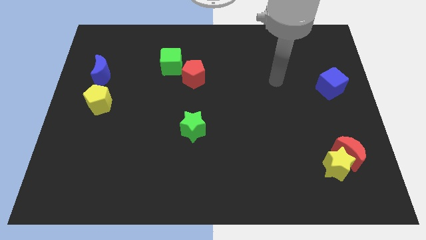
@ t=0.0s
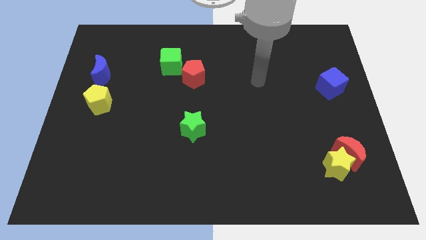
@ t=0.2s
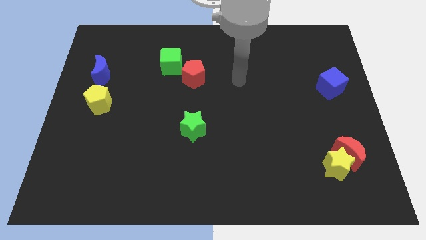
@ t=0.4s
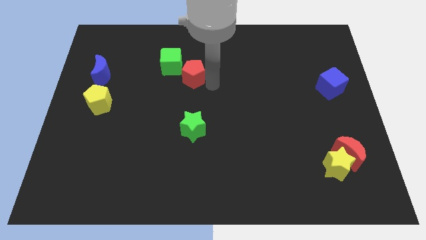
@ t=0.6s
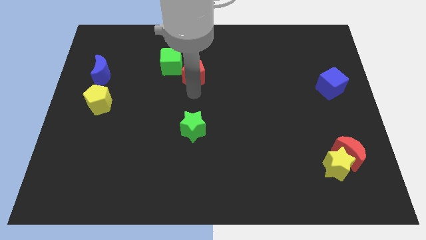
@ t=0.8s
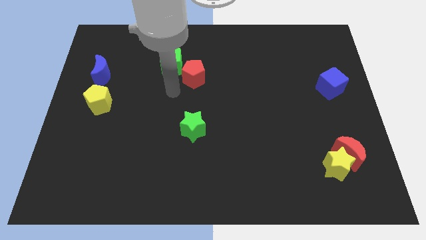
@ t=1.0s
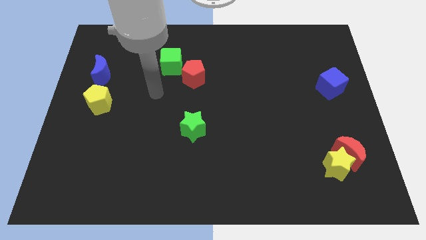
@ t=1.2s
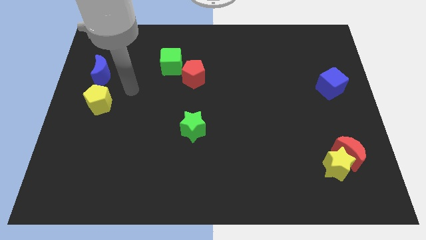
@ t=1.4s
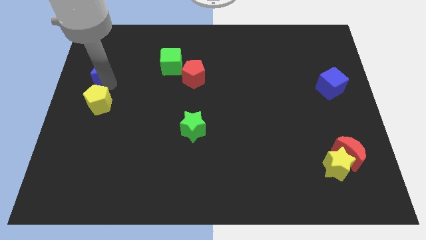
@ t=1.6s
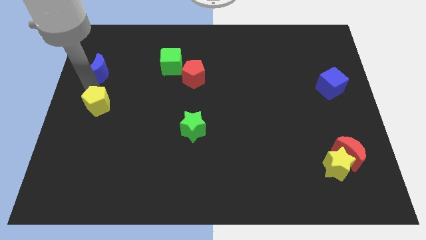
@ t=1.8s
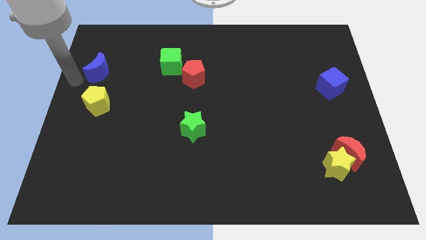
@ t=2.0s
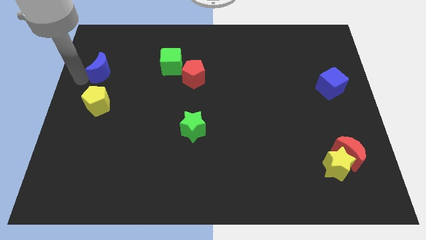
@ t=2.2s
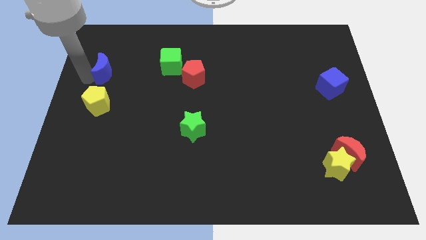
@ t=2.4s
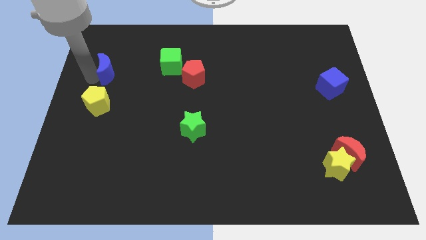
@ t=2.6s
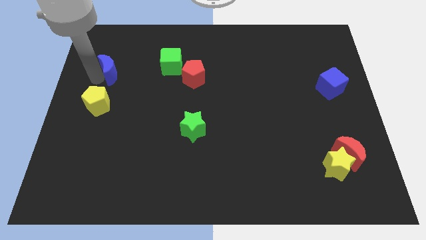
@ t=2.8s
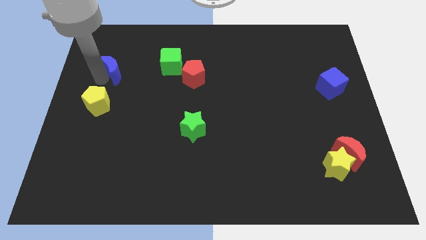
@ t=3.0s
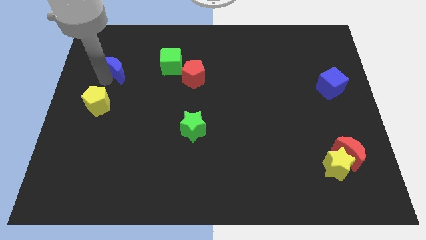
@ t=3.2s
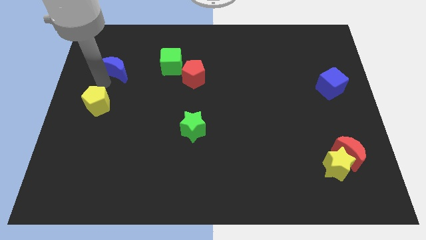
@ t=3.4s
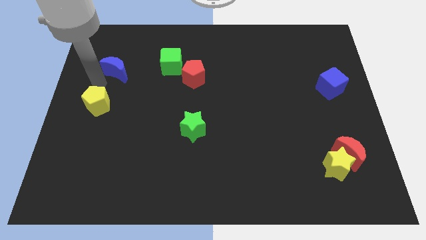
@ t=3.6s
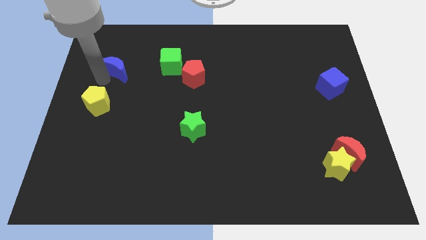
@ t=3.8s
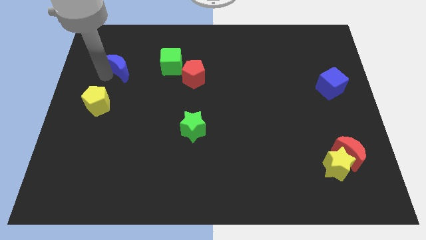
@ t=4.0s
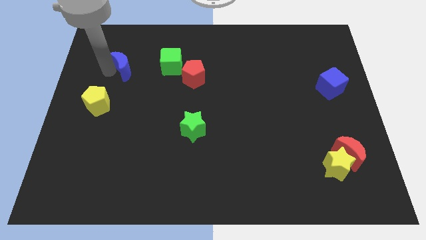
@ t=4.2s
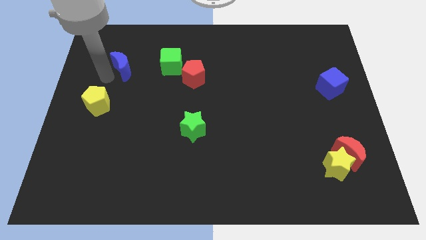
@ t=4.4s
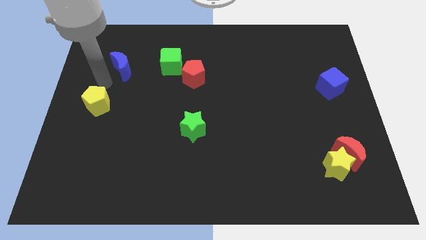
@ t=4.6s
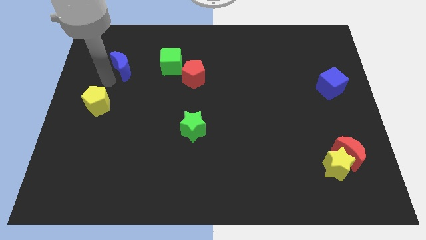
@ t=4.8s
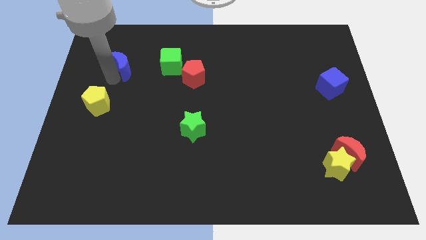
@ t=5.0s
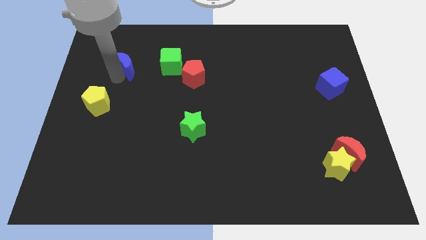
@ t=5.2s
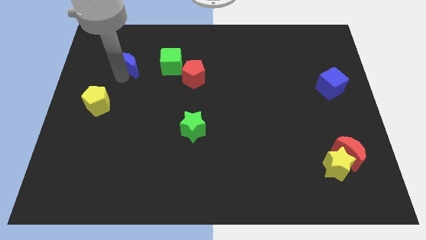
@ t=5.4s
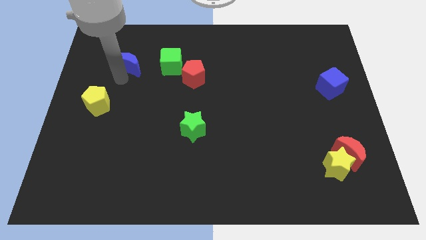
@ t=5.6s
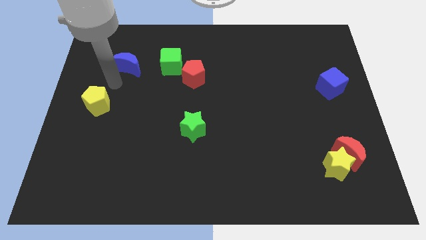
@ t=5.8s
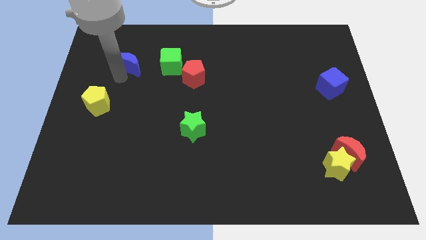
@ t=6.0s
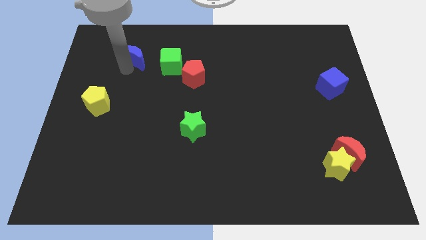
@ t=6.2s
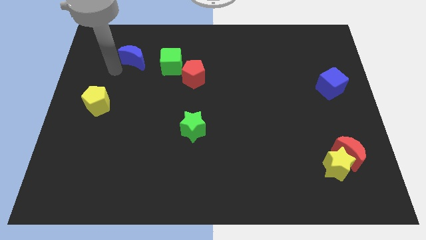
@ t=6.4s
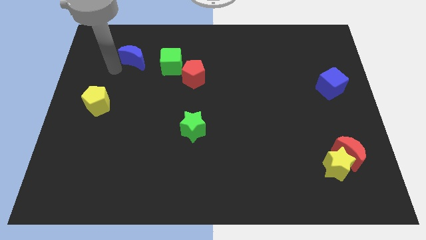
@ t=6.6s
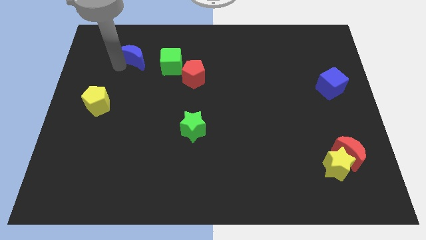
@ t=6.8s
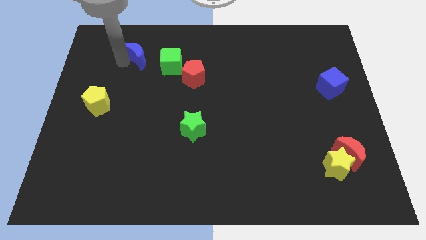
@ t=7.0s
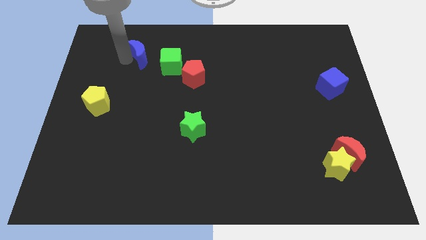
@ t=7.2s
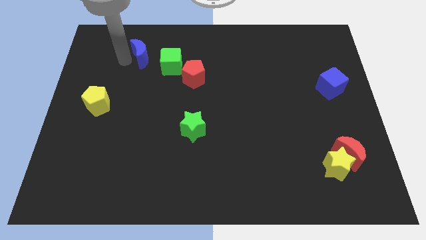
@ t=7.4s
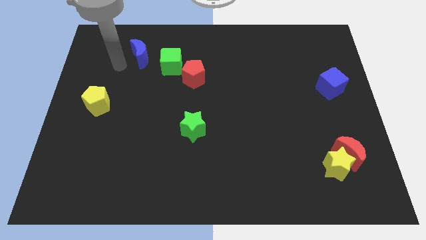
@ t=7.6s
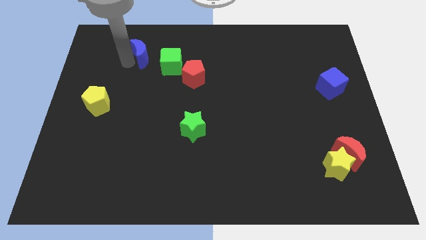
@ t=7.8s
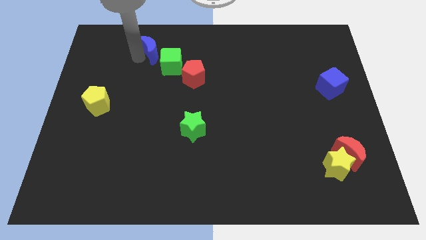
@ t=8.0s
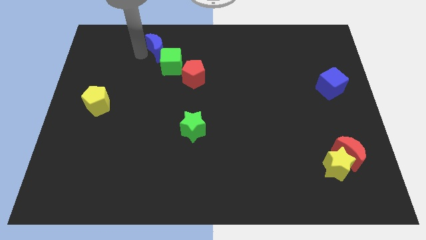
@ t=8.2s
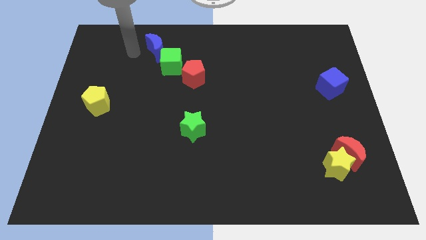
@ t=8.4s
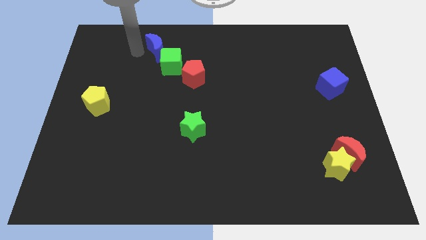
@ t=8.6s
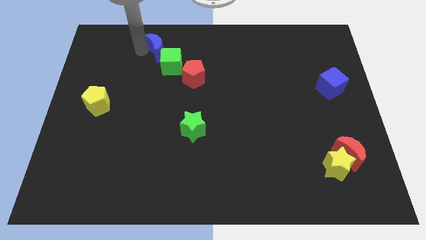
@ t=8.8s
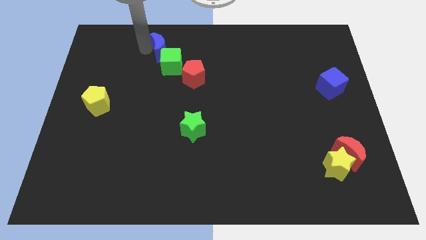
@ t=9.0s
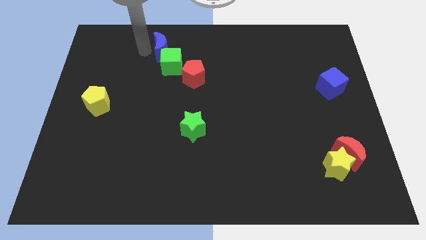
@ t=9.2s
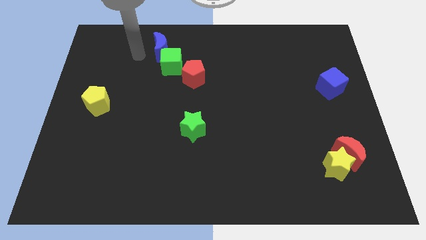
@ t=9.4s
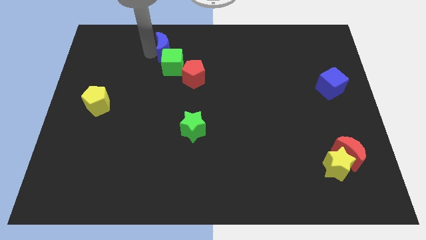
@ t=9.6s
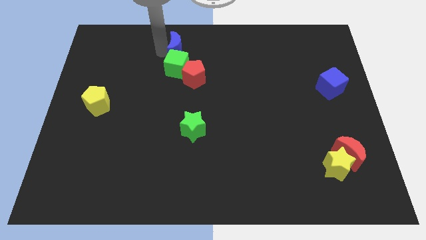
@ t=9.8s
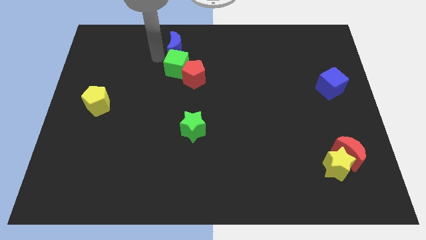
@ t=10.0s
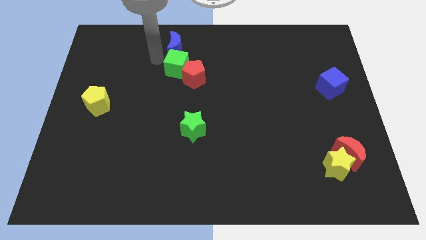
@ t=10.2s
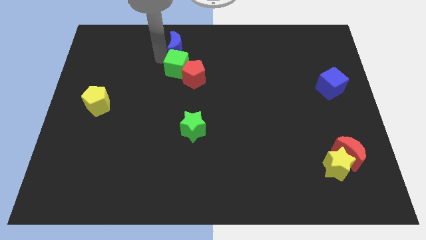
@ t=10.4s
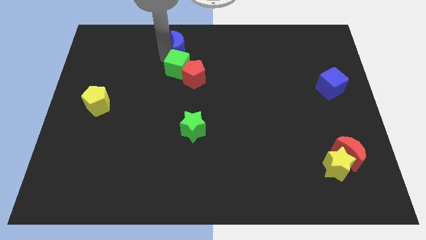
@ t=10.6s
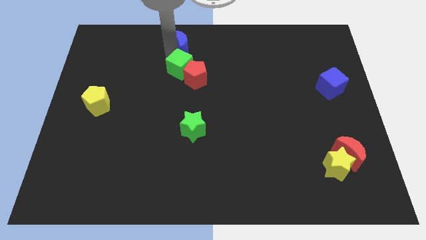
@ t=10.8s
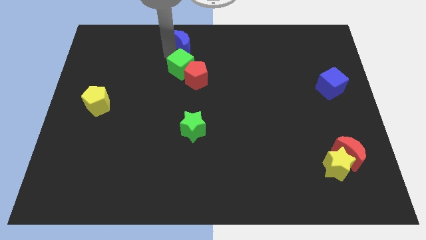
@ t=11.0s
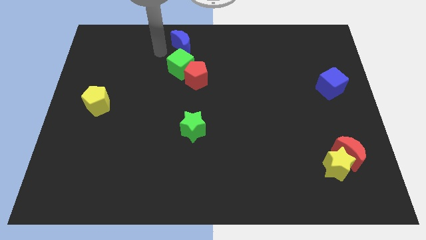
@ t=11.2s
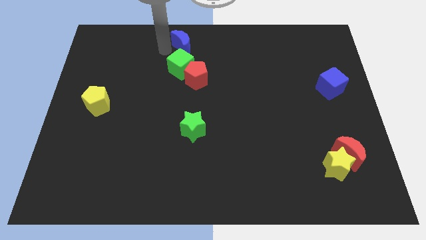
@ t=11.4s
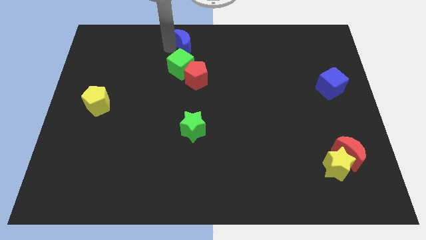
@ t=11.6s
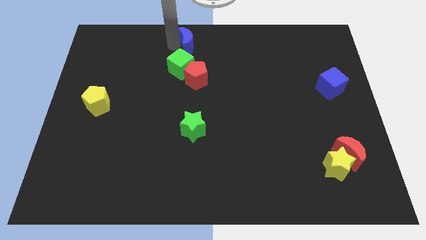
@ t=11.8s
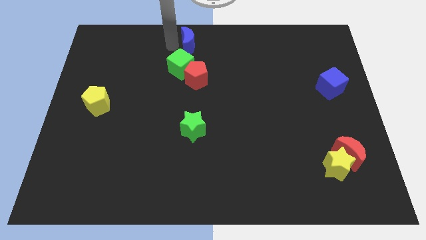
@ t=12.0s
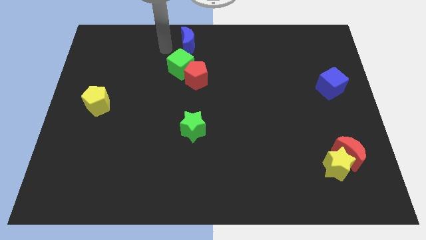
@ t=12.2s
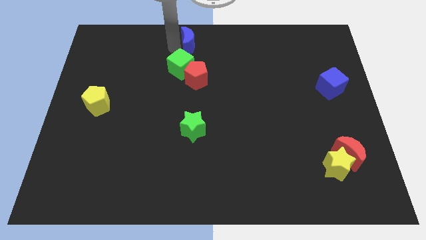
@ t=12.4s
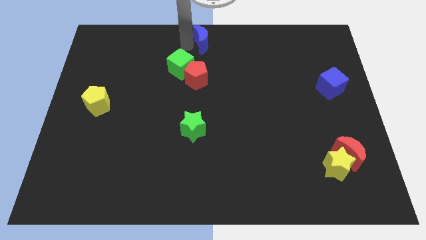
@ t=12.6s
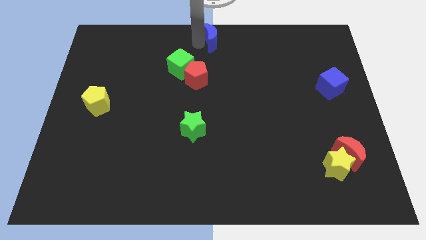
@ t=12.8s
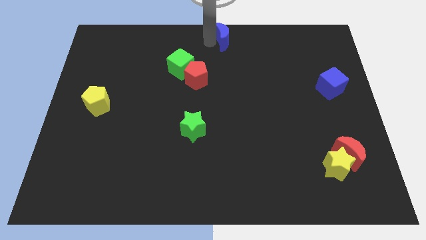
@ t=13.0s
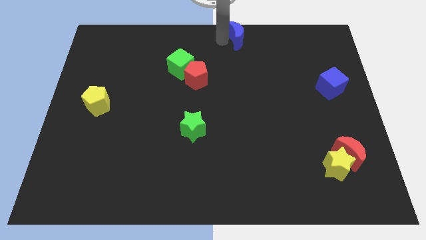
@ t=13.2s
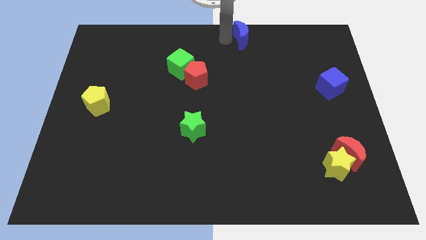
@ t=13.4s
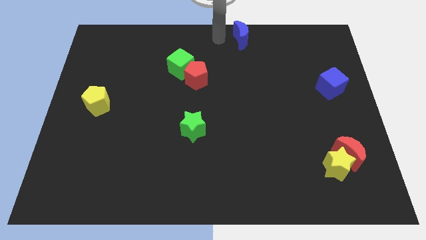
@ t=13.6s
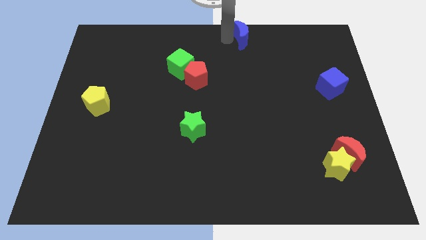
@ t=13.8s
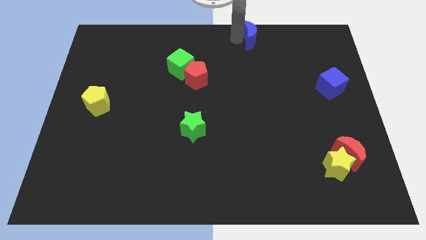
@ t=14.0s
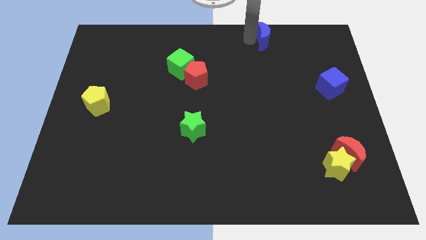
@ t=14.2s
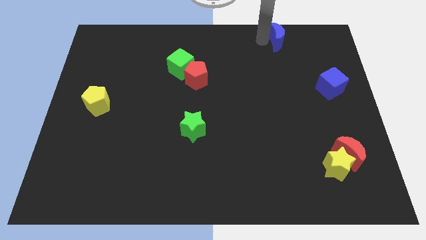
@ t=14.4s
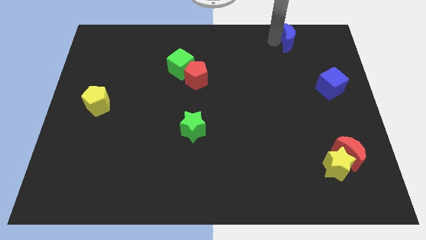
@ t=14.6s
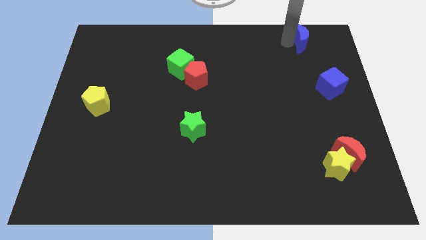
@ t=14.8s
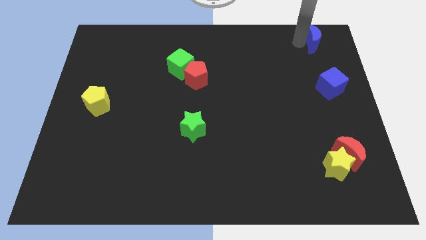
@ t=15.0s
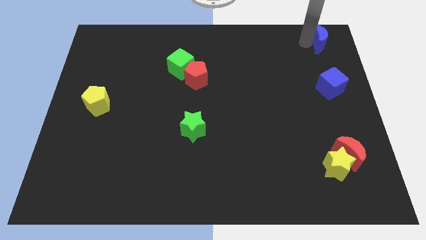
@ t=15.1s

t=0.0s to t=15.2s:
slide the blue moon to the top right of the board
